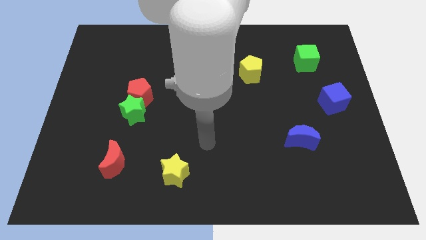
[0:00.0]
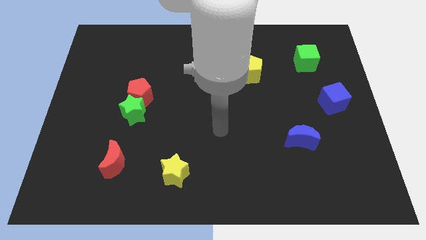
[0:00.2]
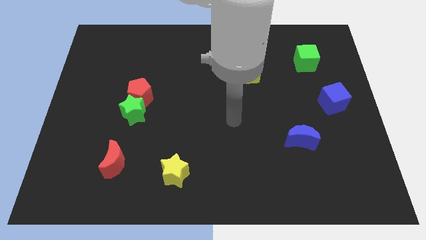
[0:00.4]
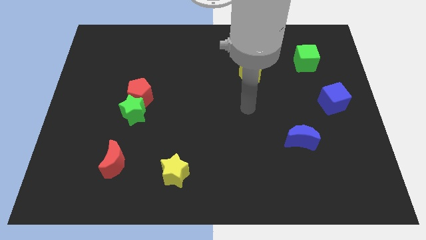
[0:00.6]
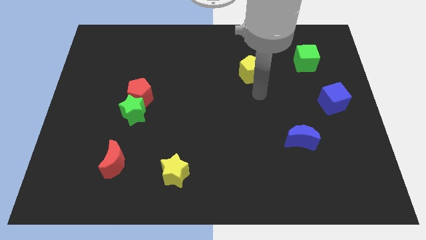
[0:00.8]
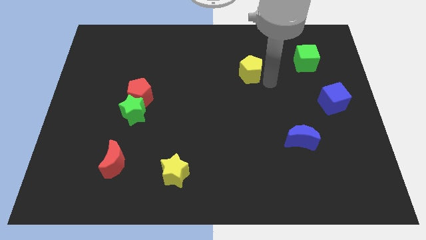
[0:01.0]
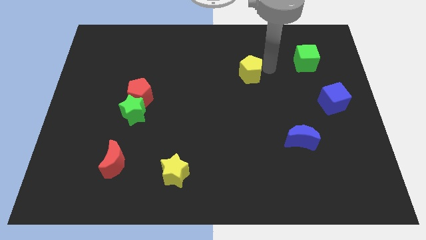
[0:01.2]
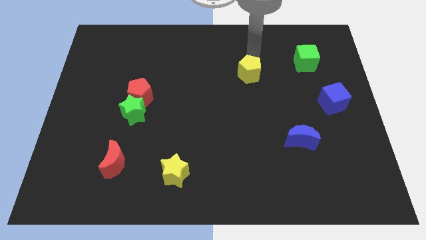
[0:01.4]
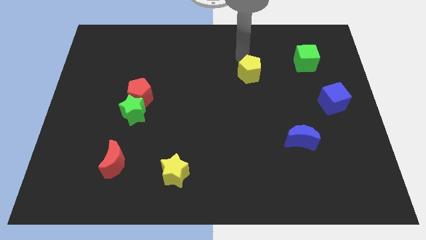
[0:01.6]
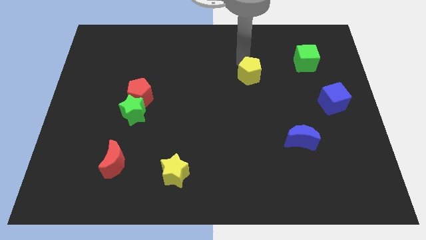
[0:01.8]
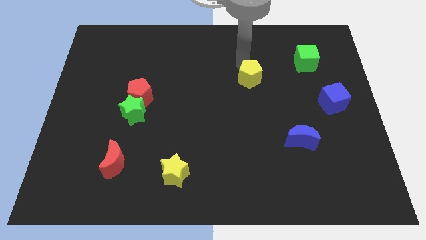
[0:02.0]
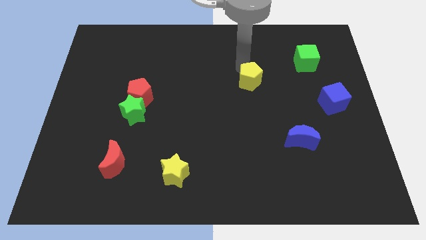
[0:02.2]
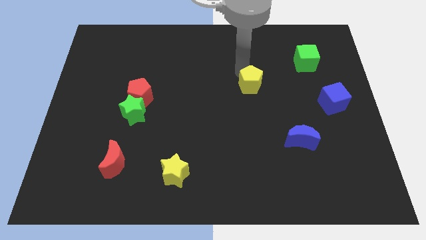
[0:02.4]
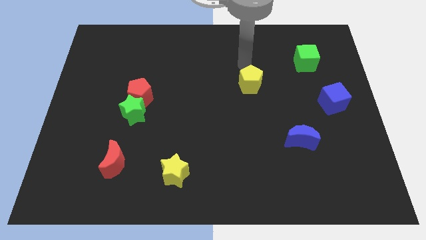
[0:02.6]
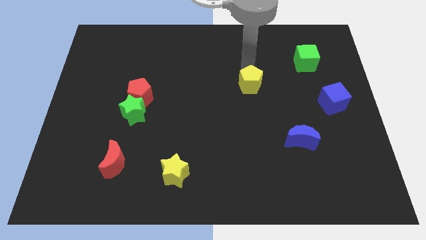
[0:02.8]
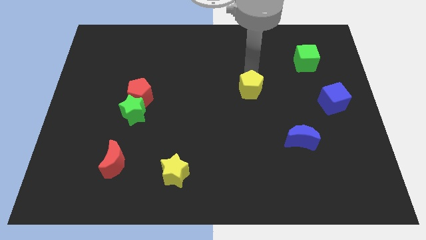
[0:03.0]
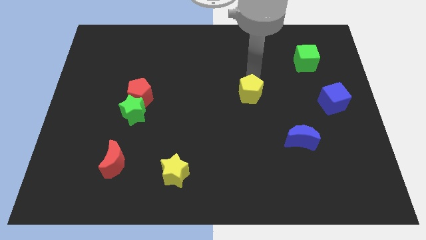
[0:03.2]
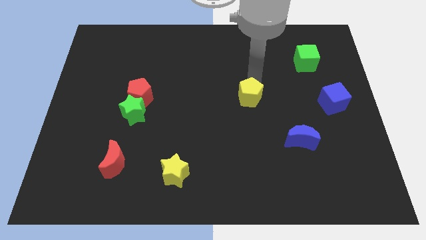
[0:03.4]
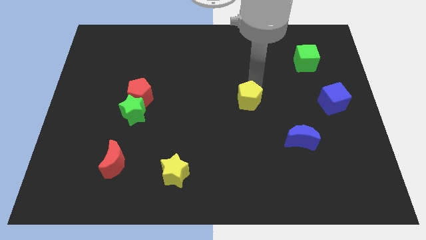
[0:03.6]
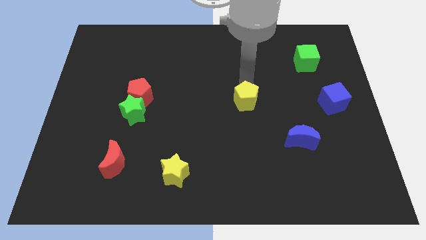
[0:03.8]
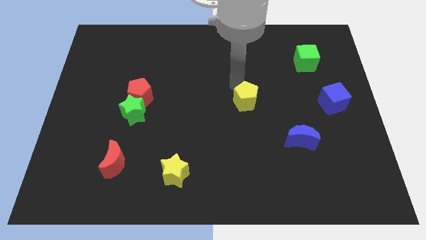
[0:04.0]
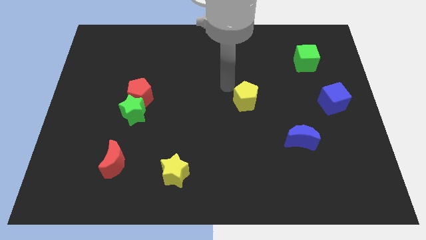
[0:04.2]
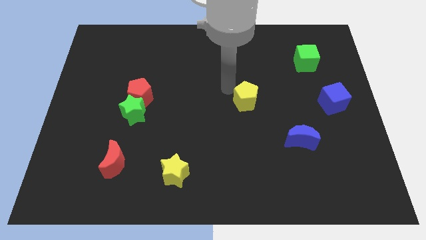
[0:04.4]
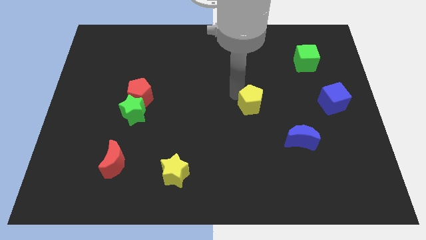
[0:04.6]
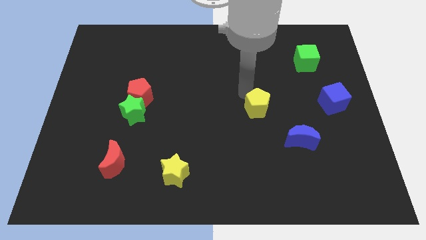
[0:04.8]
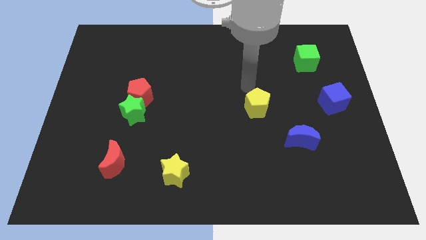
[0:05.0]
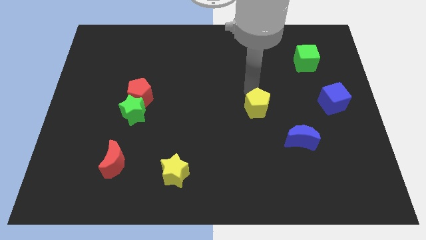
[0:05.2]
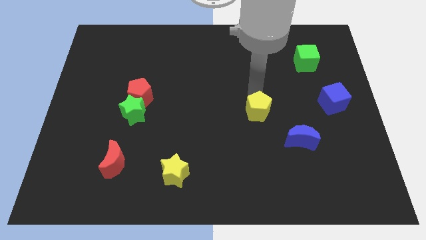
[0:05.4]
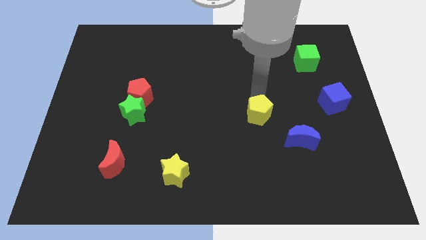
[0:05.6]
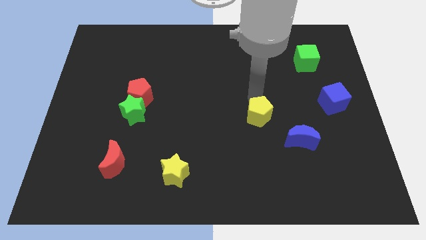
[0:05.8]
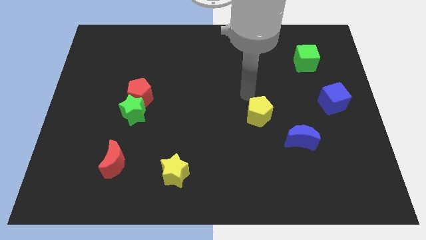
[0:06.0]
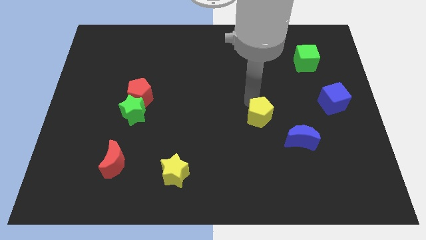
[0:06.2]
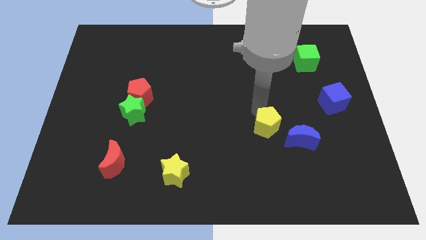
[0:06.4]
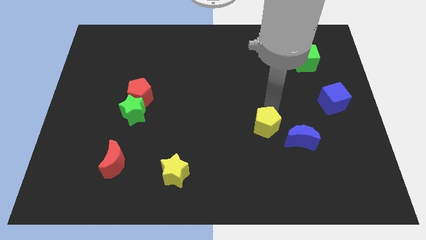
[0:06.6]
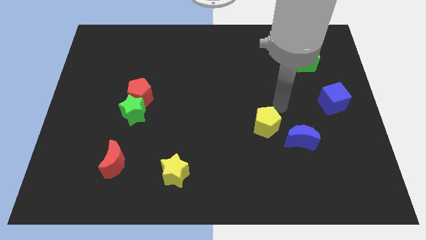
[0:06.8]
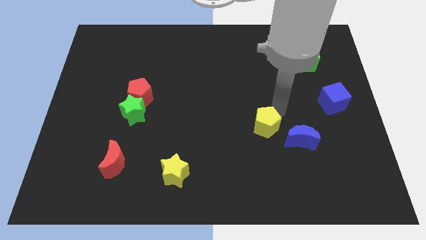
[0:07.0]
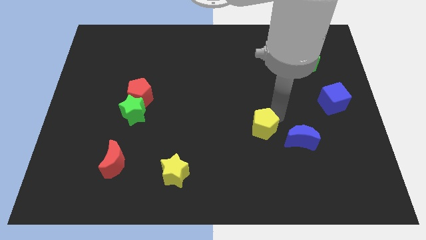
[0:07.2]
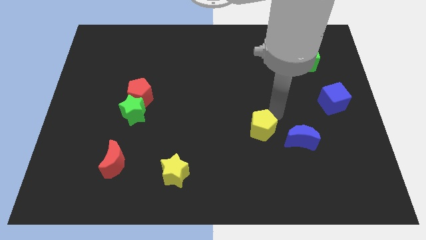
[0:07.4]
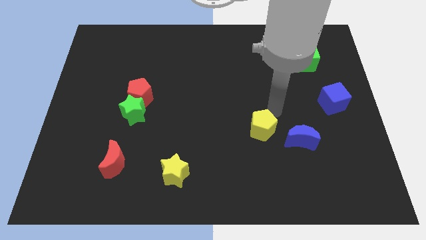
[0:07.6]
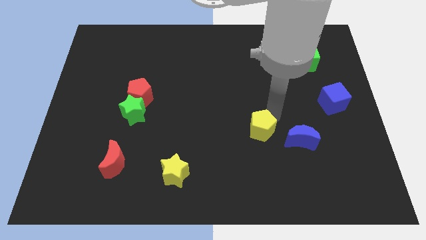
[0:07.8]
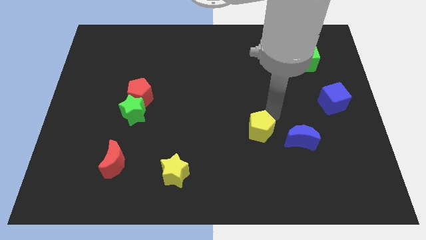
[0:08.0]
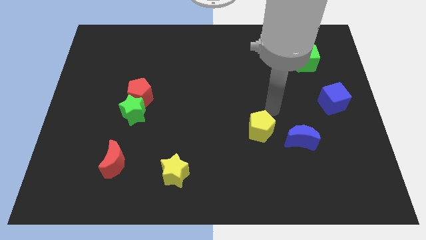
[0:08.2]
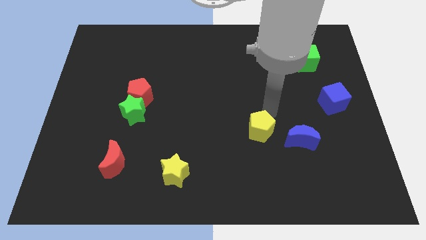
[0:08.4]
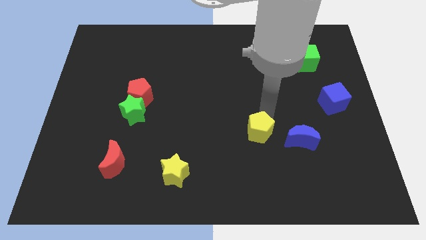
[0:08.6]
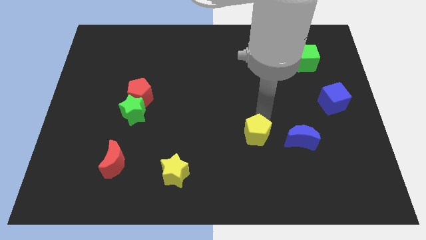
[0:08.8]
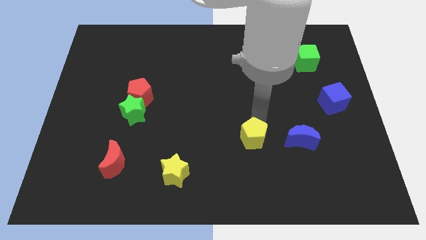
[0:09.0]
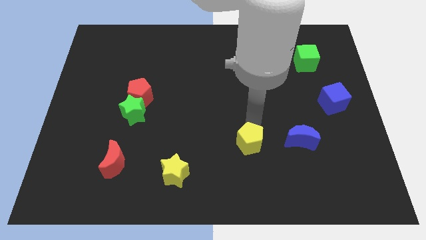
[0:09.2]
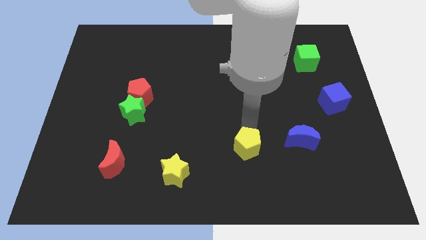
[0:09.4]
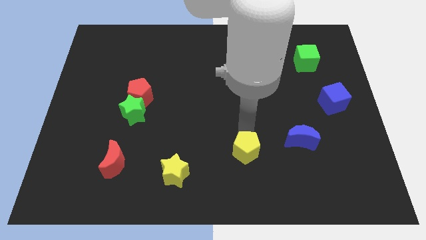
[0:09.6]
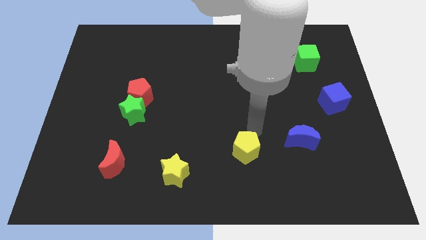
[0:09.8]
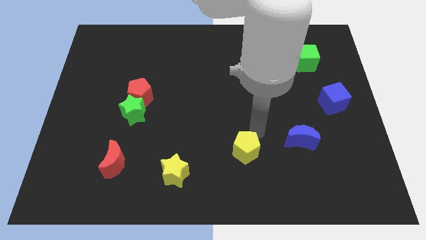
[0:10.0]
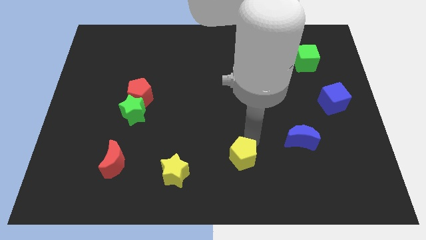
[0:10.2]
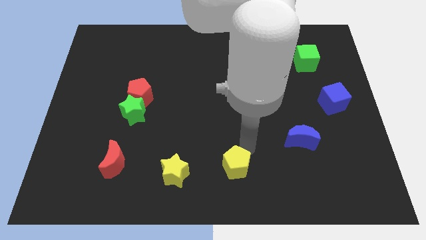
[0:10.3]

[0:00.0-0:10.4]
push the yellow pentagon to the bottom

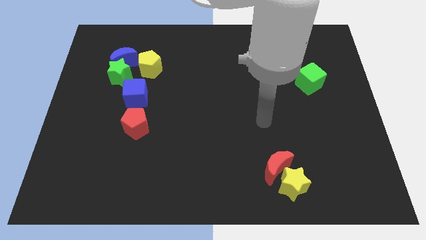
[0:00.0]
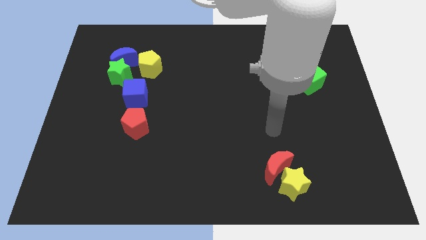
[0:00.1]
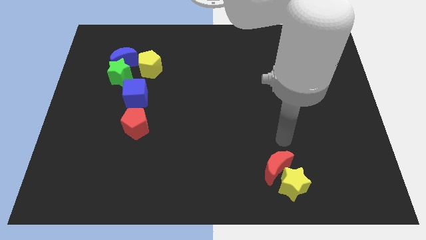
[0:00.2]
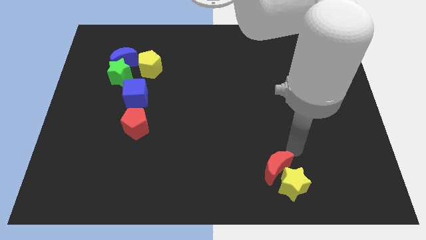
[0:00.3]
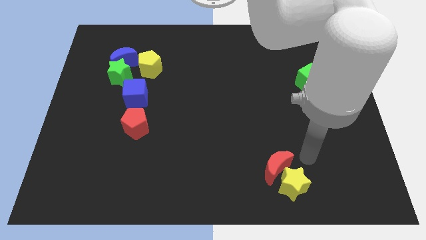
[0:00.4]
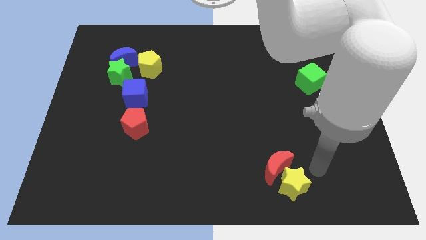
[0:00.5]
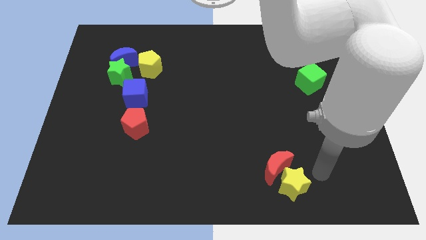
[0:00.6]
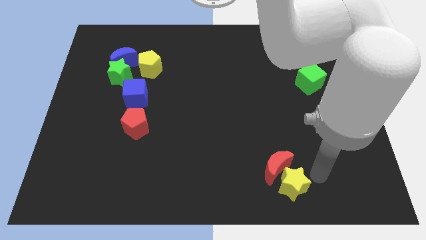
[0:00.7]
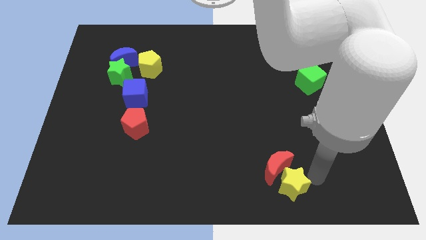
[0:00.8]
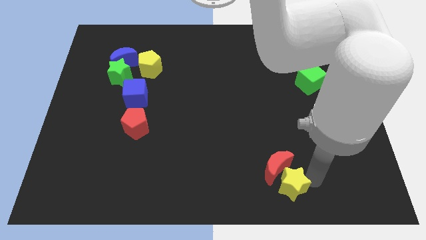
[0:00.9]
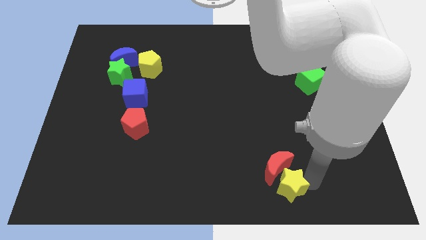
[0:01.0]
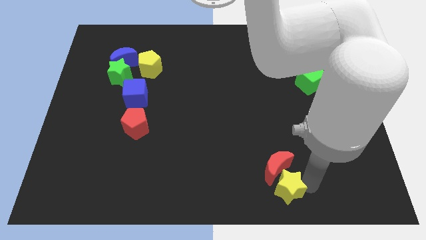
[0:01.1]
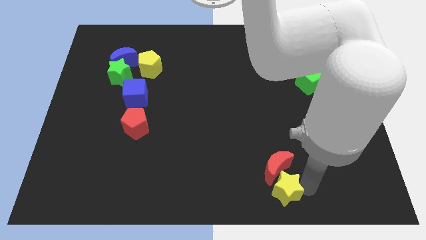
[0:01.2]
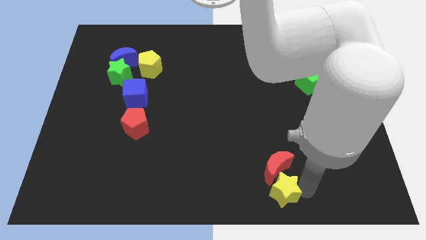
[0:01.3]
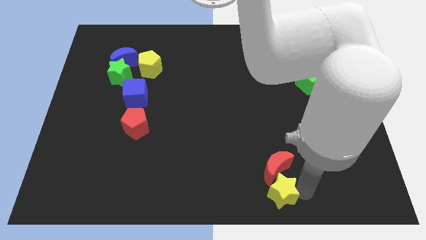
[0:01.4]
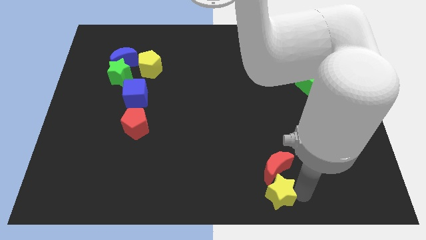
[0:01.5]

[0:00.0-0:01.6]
push the yellow star to the bottom side
